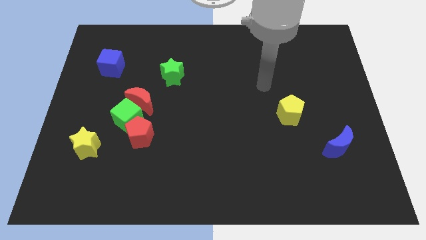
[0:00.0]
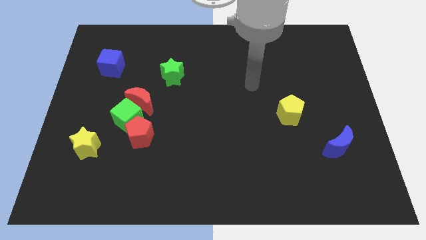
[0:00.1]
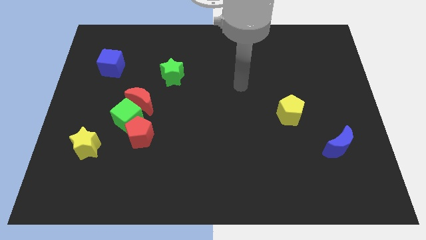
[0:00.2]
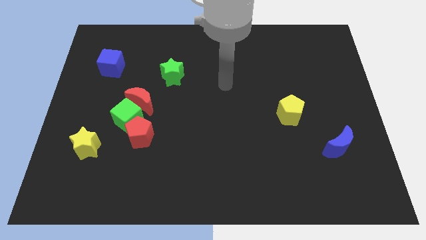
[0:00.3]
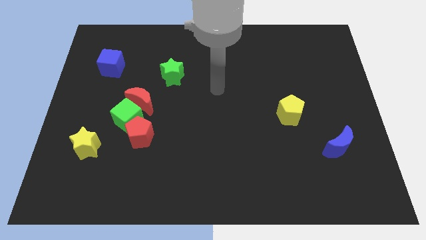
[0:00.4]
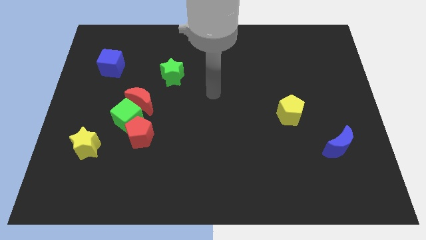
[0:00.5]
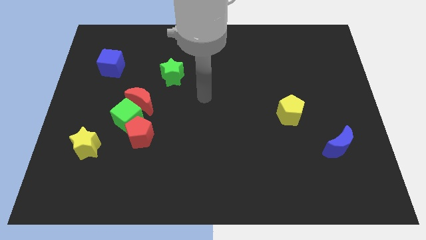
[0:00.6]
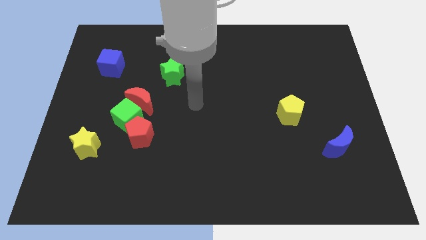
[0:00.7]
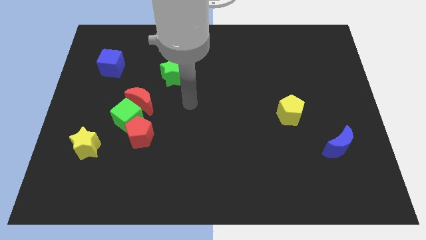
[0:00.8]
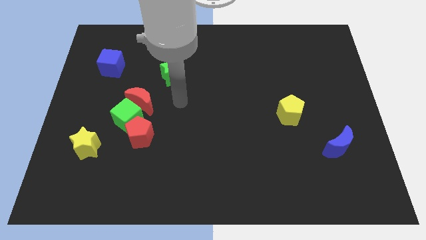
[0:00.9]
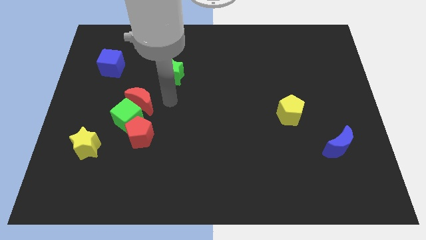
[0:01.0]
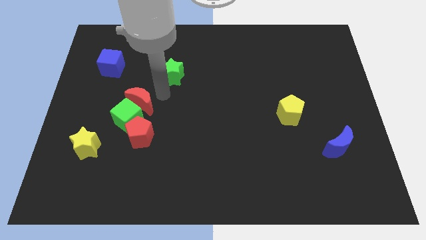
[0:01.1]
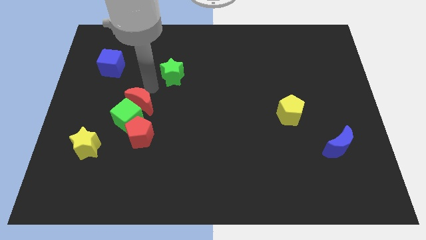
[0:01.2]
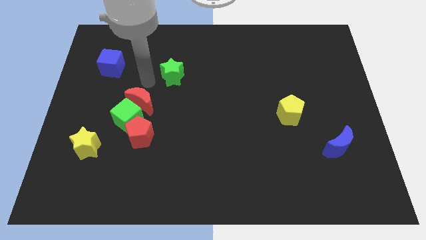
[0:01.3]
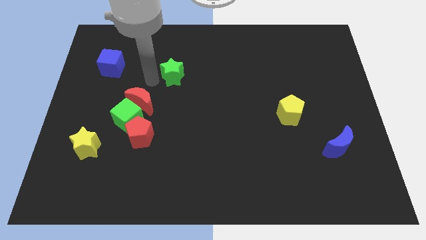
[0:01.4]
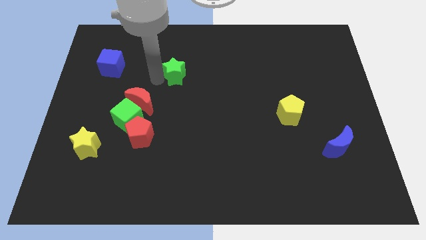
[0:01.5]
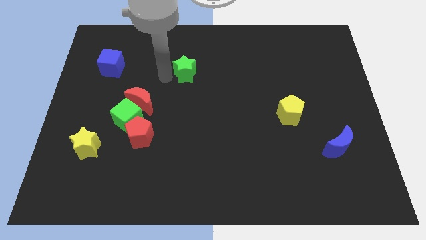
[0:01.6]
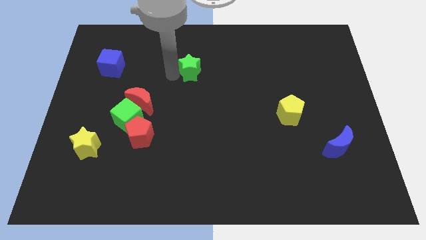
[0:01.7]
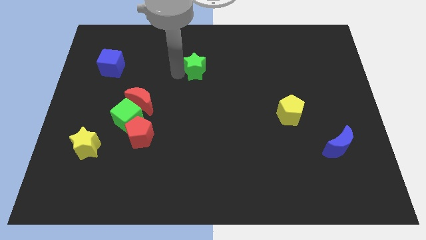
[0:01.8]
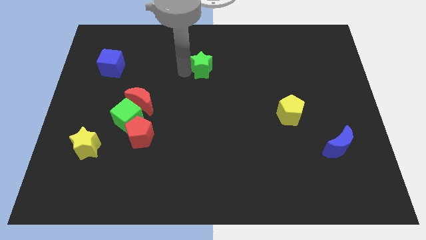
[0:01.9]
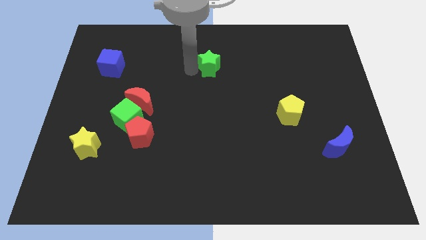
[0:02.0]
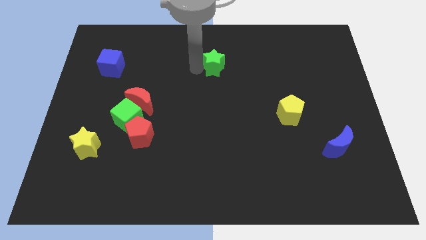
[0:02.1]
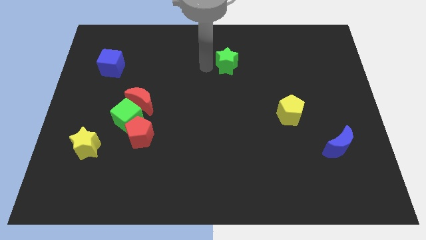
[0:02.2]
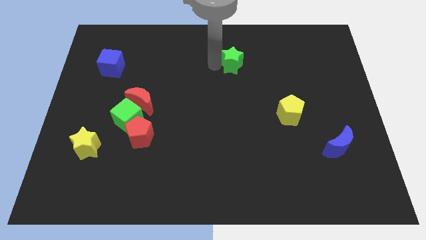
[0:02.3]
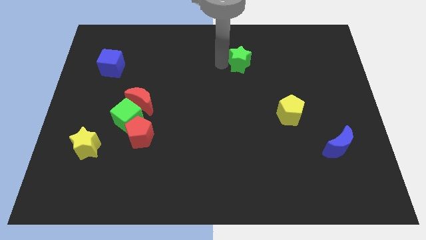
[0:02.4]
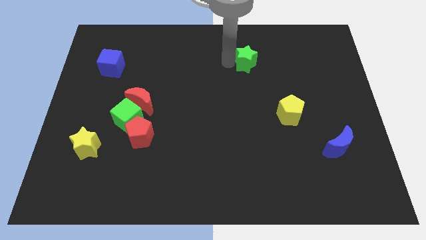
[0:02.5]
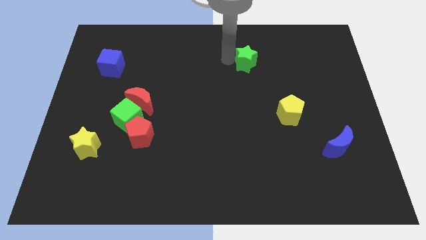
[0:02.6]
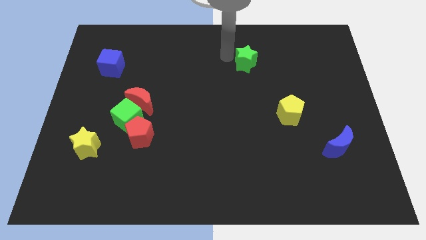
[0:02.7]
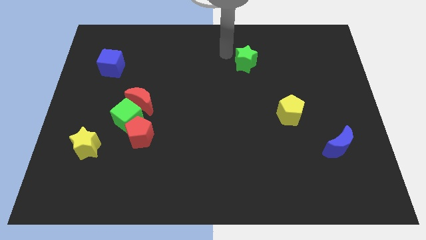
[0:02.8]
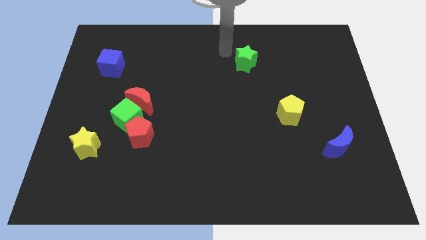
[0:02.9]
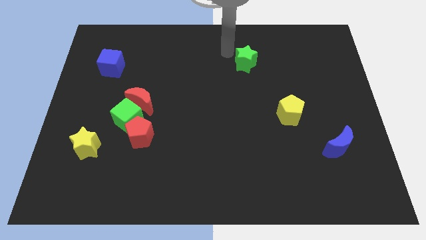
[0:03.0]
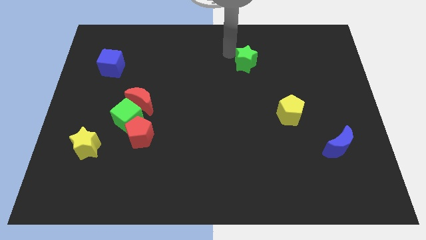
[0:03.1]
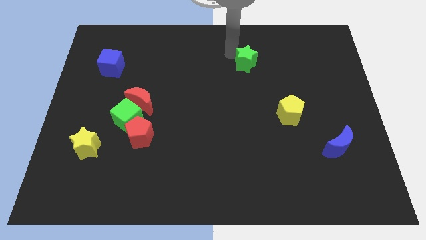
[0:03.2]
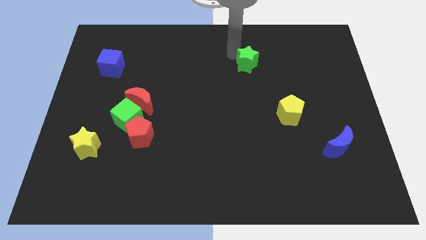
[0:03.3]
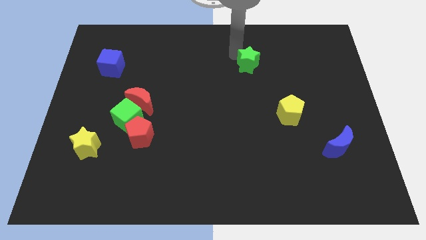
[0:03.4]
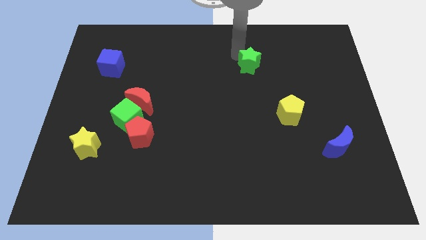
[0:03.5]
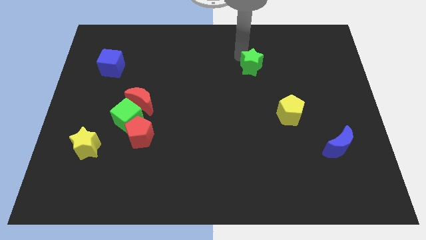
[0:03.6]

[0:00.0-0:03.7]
move the green star right

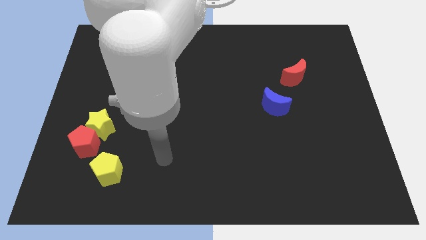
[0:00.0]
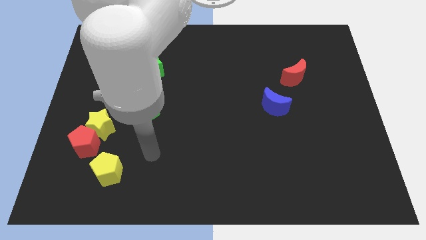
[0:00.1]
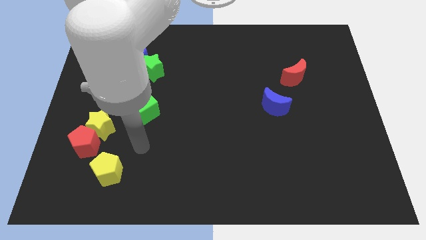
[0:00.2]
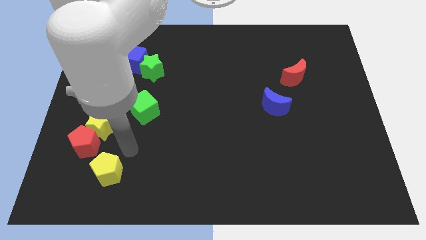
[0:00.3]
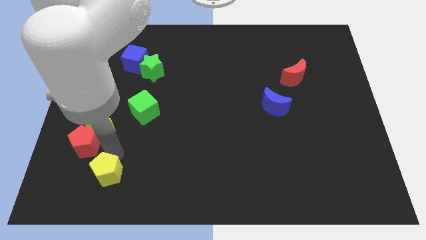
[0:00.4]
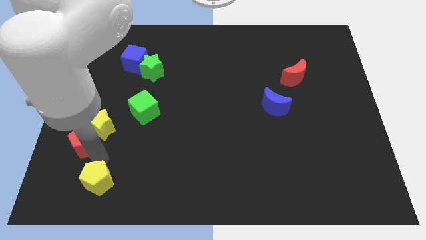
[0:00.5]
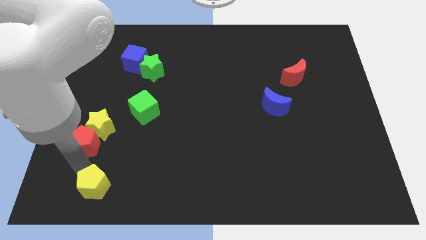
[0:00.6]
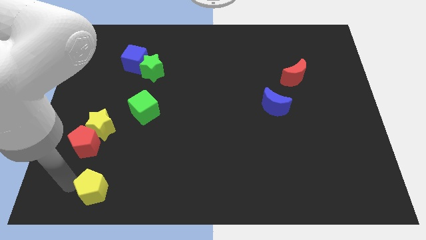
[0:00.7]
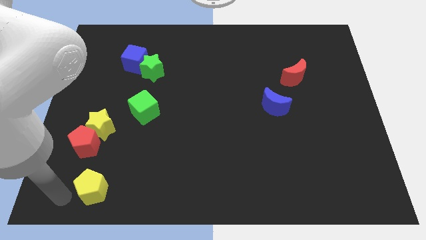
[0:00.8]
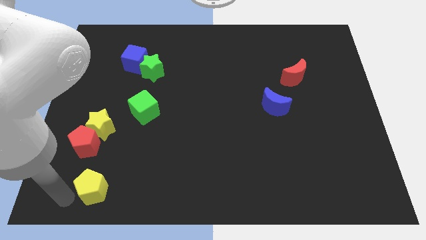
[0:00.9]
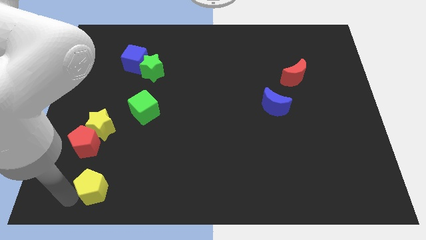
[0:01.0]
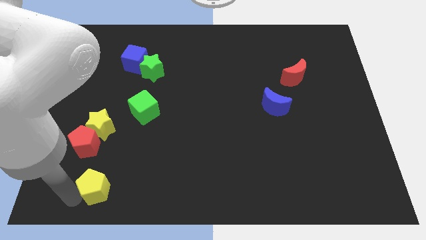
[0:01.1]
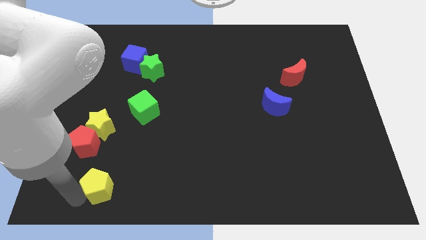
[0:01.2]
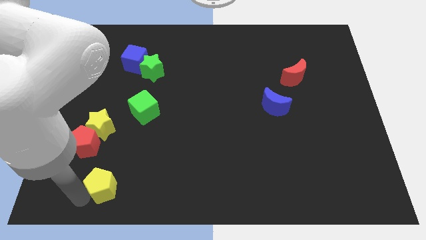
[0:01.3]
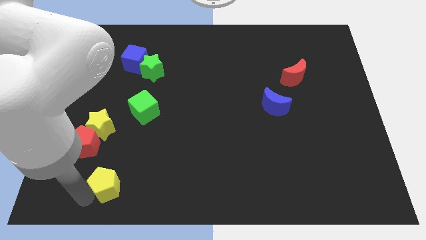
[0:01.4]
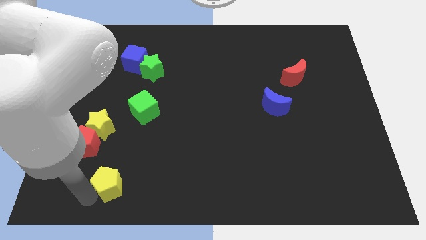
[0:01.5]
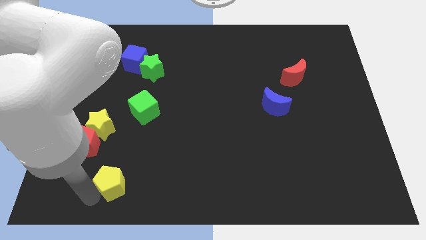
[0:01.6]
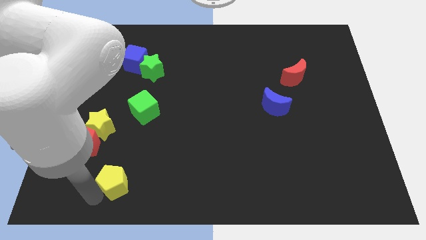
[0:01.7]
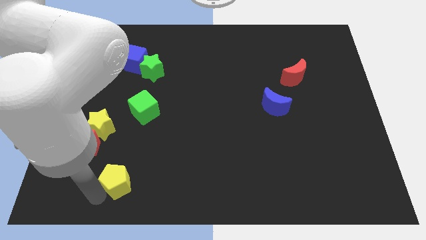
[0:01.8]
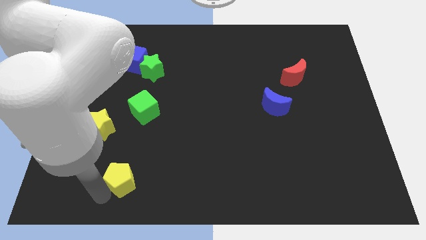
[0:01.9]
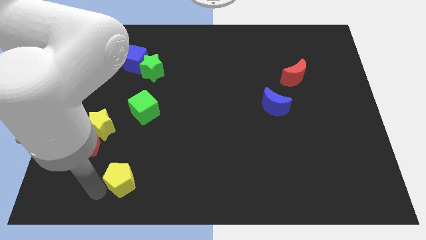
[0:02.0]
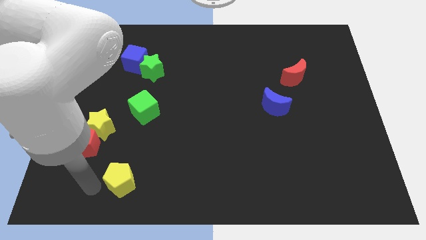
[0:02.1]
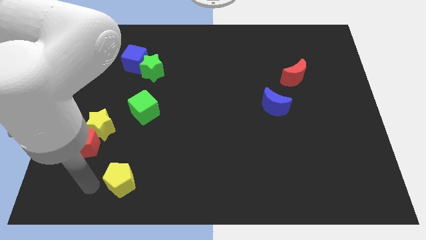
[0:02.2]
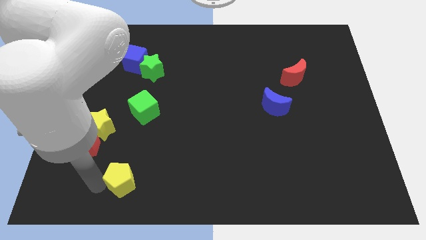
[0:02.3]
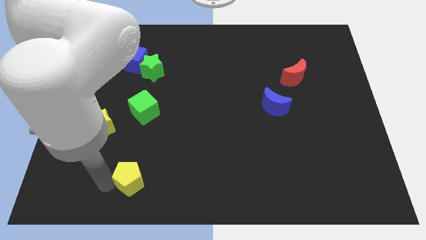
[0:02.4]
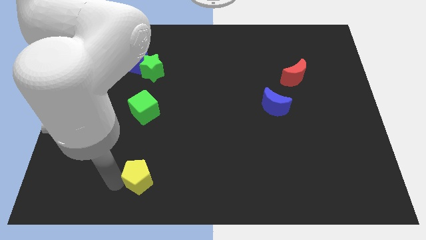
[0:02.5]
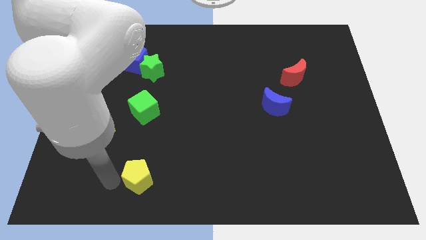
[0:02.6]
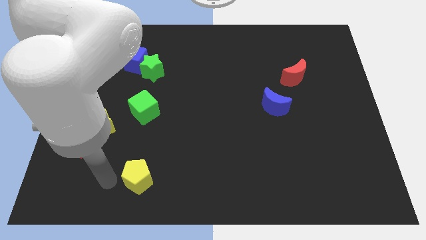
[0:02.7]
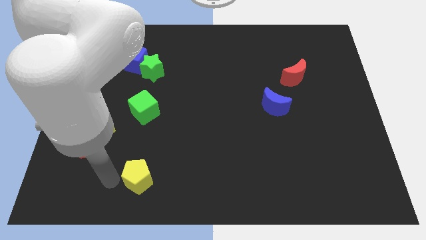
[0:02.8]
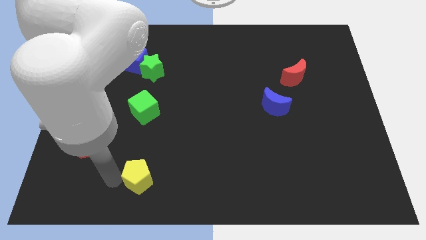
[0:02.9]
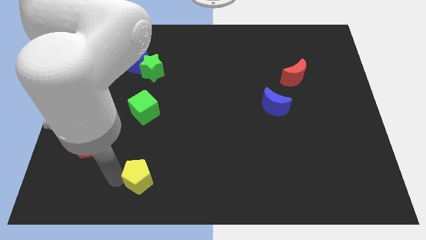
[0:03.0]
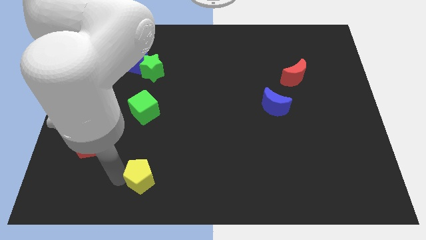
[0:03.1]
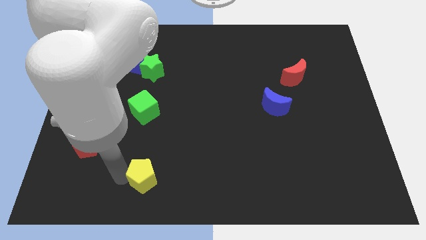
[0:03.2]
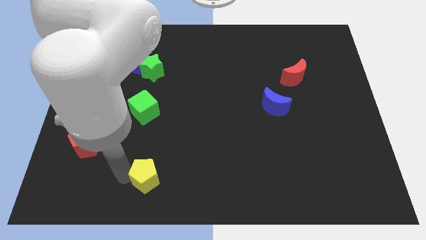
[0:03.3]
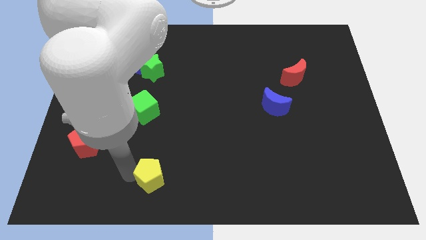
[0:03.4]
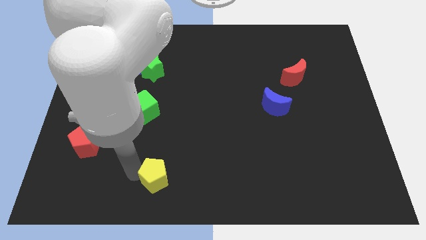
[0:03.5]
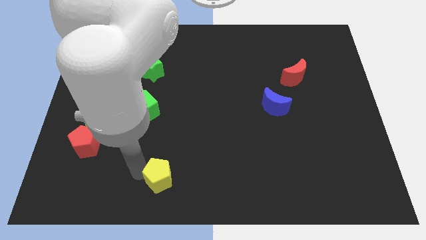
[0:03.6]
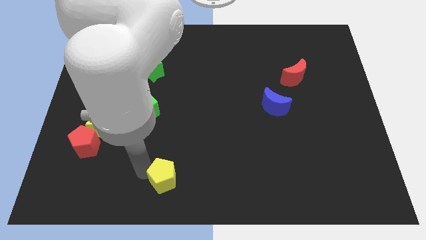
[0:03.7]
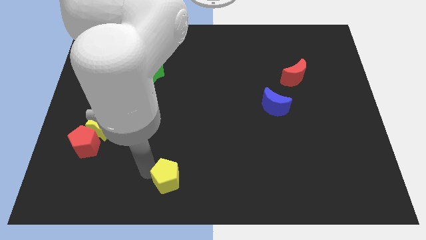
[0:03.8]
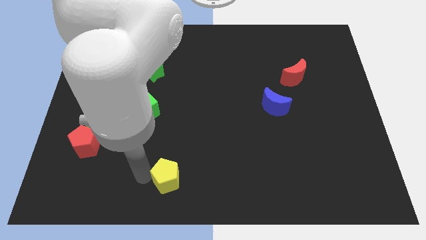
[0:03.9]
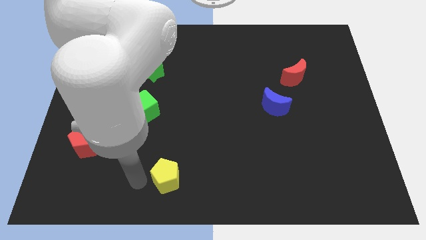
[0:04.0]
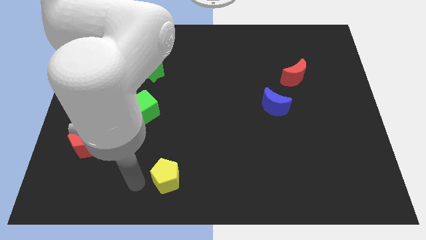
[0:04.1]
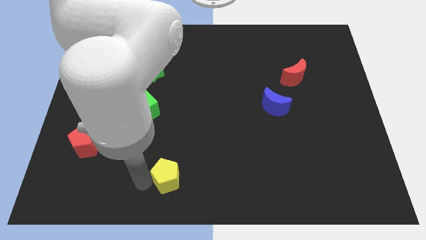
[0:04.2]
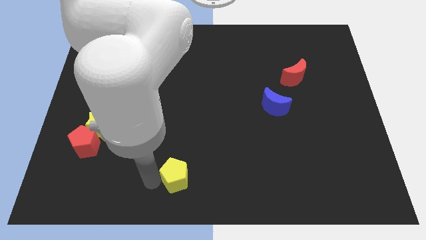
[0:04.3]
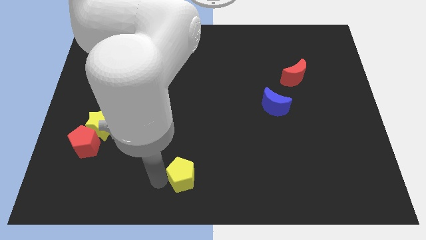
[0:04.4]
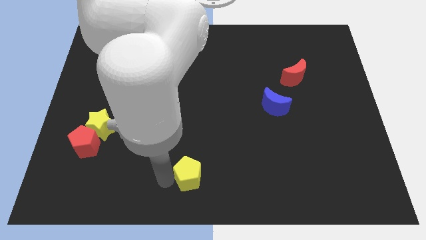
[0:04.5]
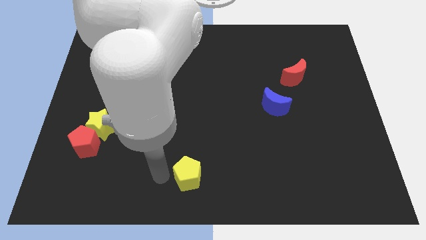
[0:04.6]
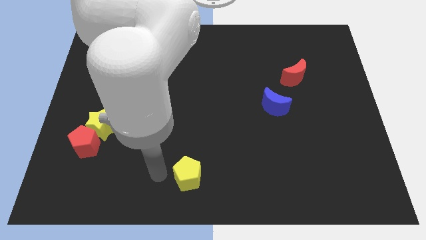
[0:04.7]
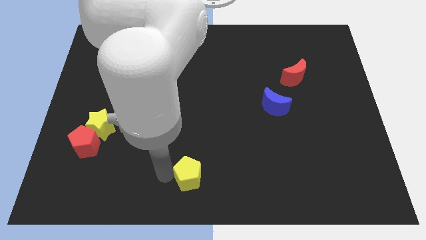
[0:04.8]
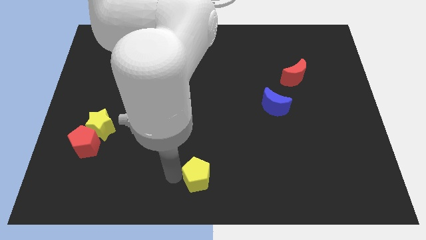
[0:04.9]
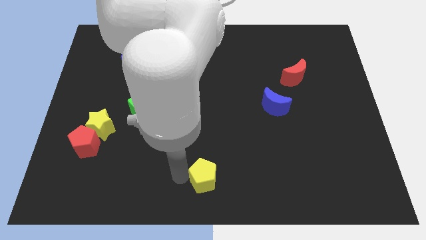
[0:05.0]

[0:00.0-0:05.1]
slide the yellow pentagon right
